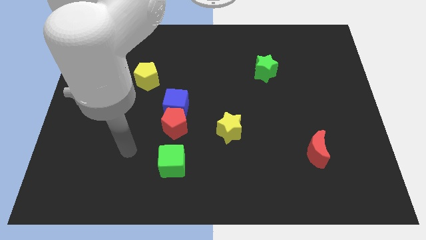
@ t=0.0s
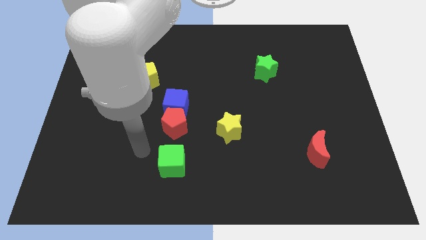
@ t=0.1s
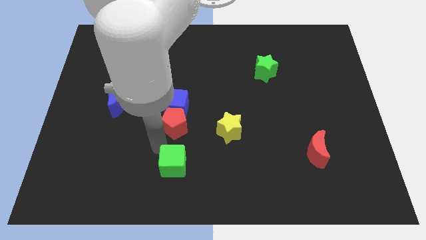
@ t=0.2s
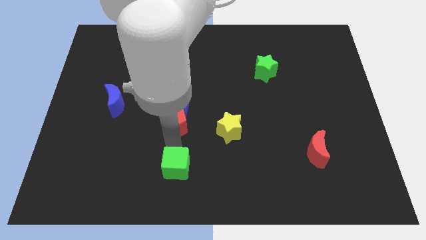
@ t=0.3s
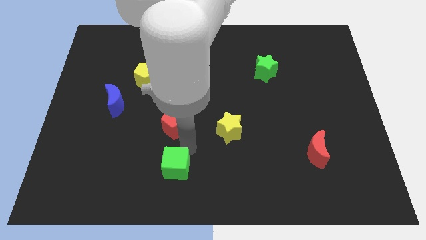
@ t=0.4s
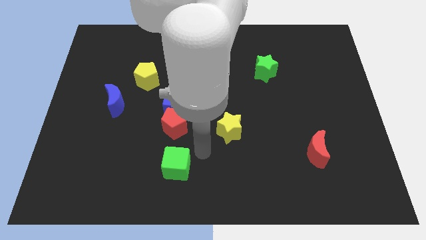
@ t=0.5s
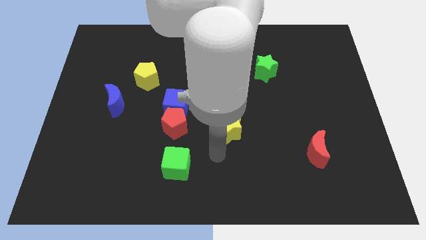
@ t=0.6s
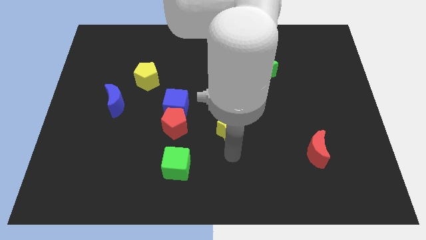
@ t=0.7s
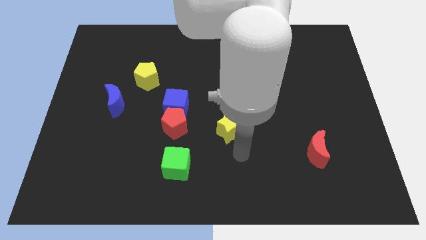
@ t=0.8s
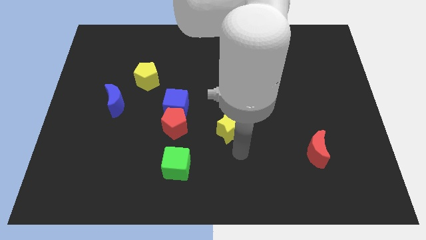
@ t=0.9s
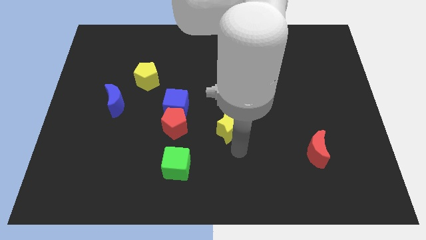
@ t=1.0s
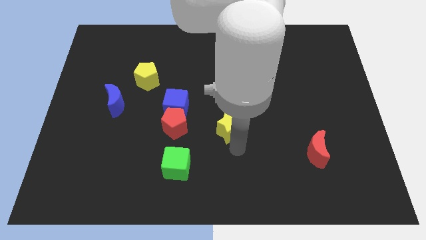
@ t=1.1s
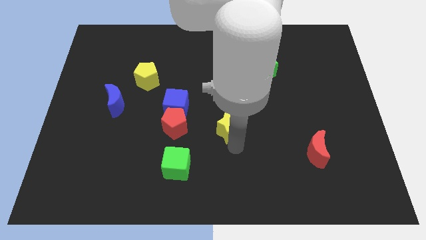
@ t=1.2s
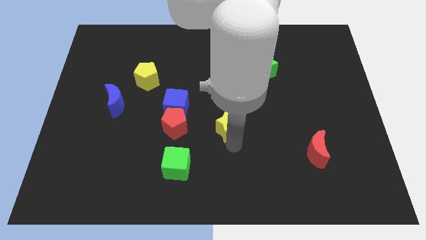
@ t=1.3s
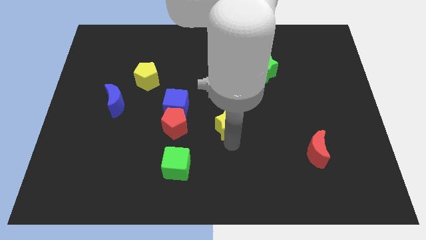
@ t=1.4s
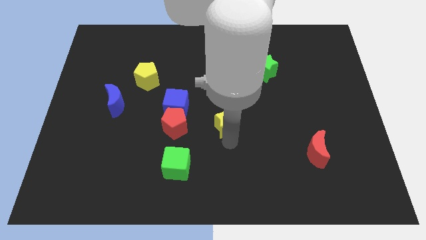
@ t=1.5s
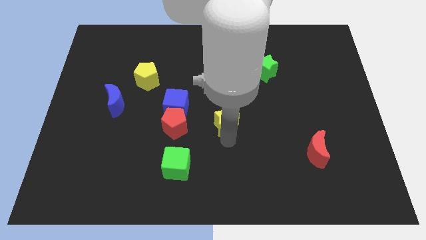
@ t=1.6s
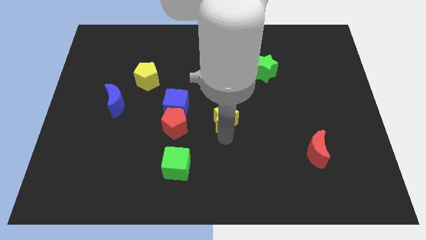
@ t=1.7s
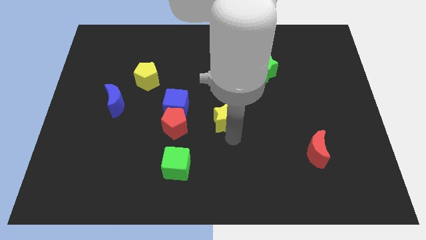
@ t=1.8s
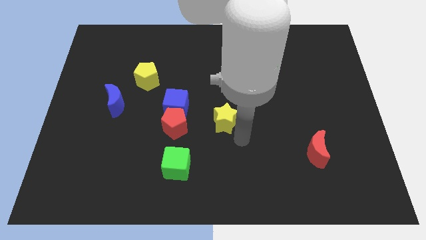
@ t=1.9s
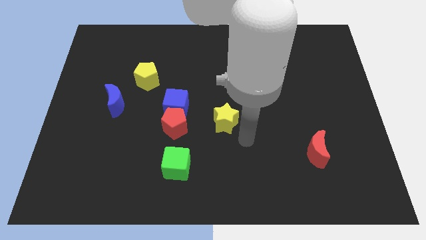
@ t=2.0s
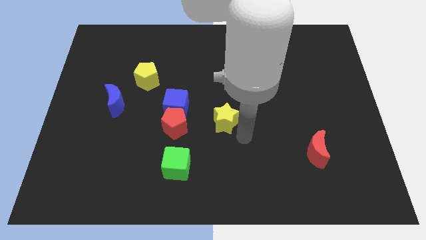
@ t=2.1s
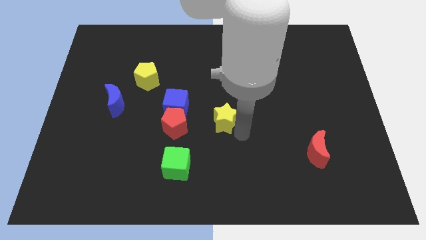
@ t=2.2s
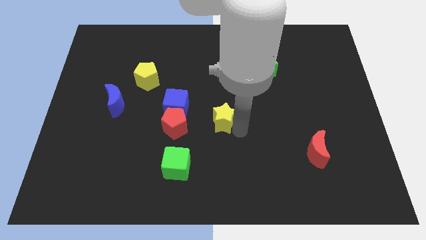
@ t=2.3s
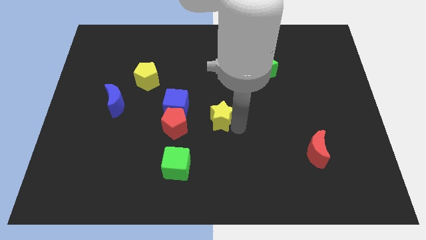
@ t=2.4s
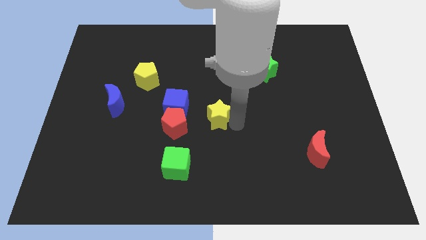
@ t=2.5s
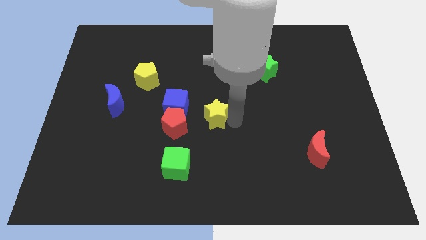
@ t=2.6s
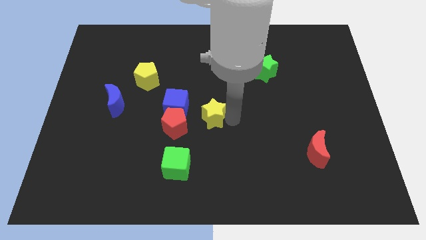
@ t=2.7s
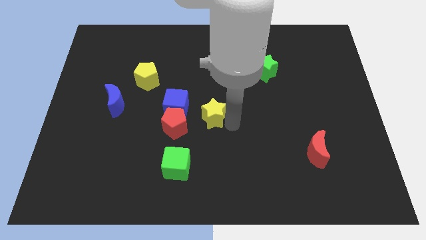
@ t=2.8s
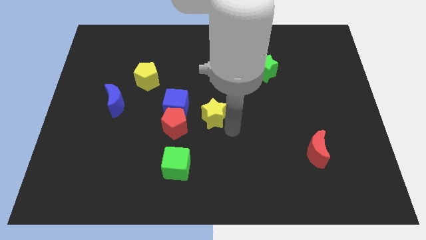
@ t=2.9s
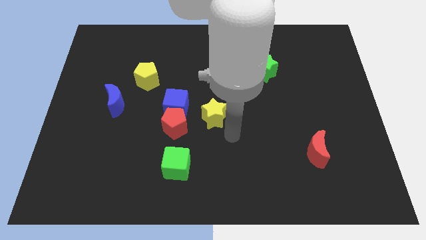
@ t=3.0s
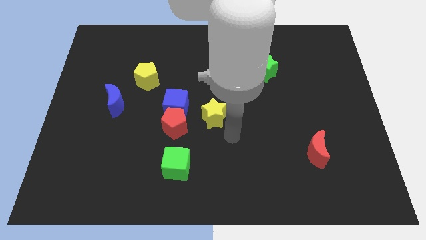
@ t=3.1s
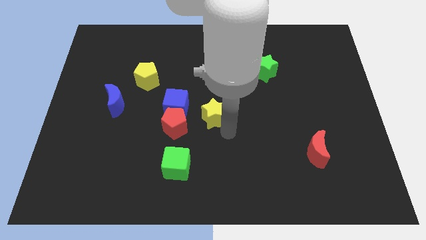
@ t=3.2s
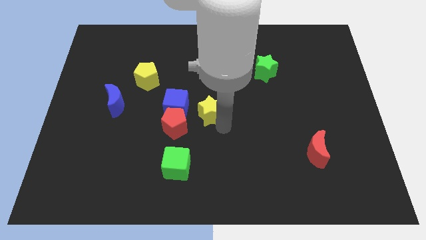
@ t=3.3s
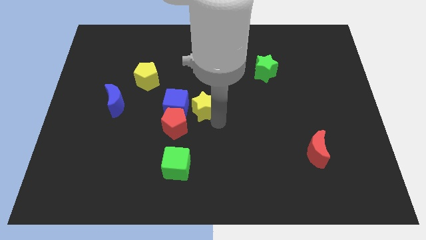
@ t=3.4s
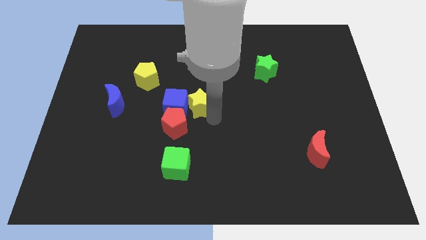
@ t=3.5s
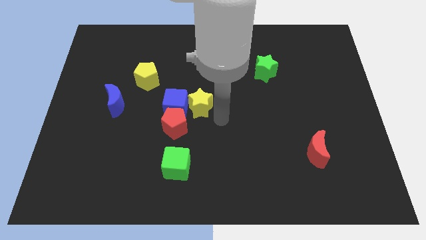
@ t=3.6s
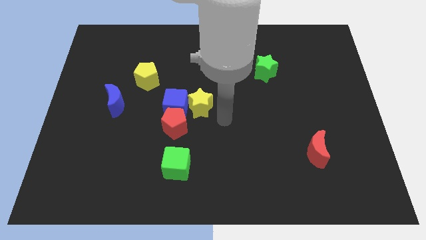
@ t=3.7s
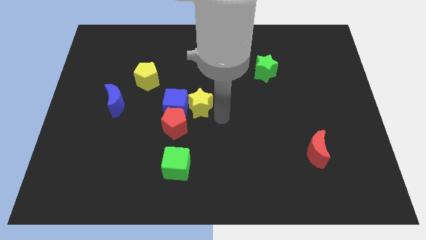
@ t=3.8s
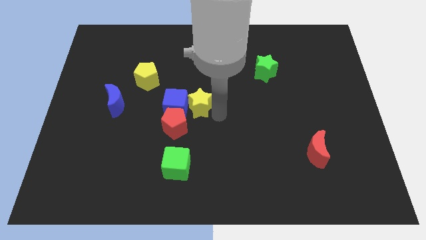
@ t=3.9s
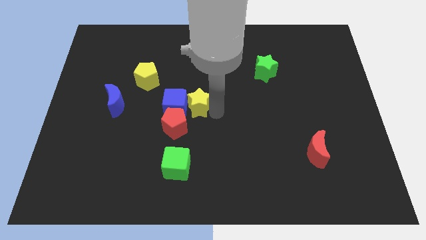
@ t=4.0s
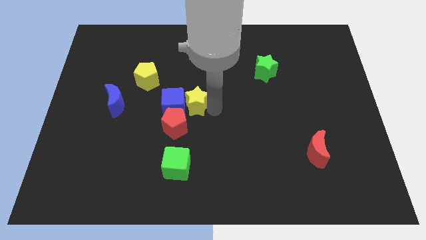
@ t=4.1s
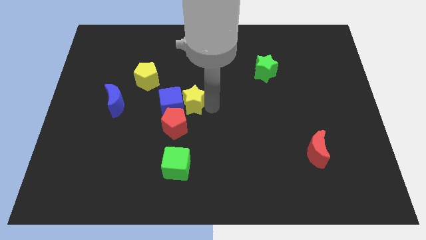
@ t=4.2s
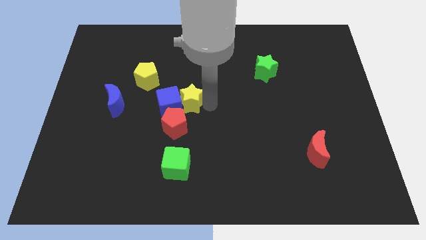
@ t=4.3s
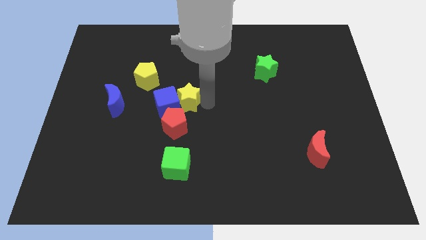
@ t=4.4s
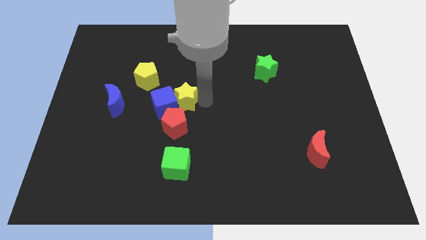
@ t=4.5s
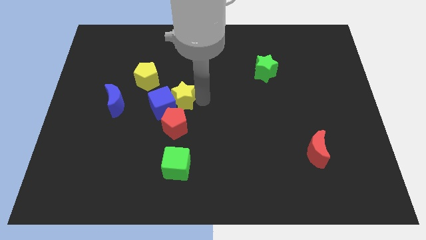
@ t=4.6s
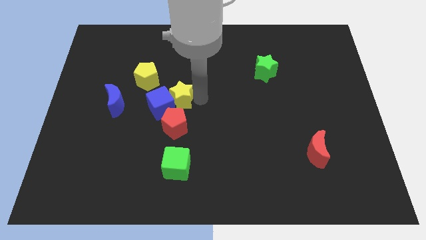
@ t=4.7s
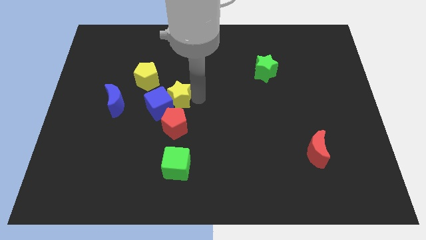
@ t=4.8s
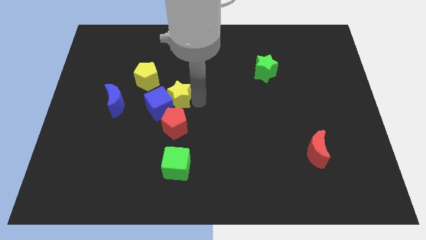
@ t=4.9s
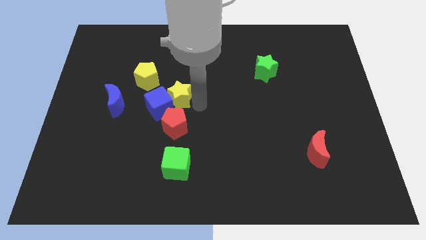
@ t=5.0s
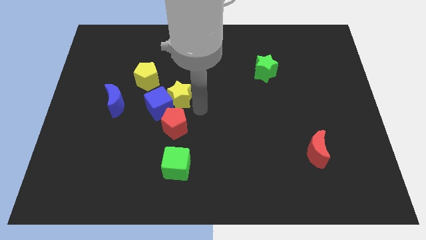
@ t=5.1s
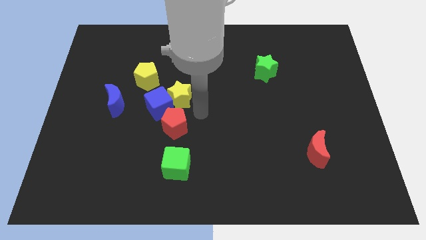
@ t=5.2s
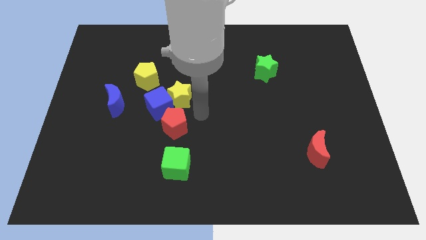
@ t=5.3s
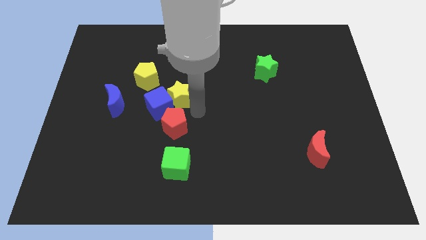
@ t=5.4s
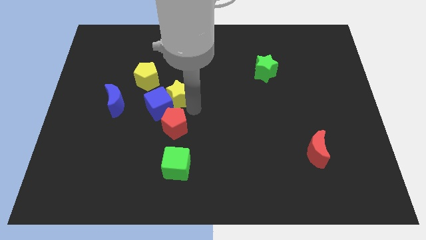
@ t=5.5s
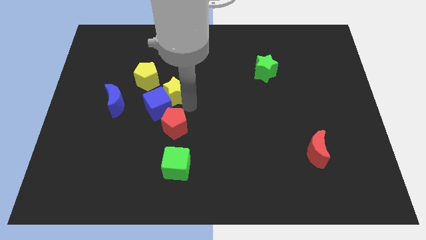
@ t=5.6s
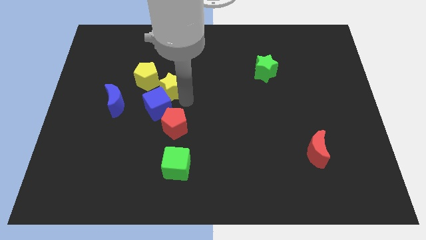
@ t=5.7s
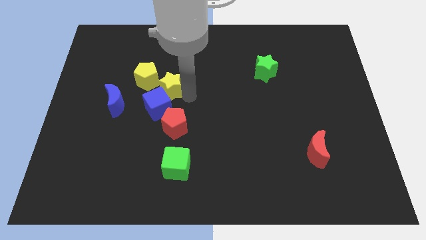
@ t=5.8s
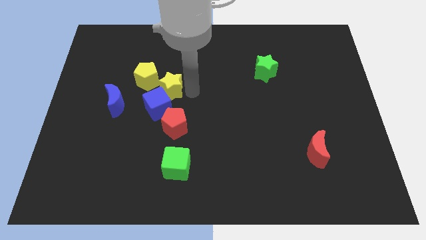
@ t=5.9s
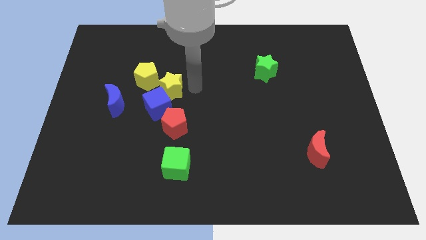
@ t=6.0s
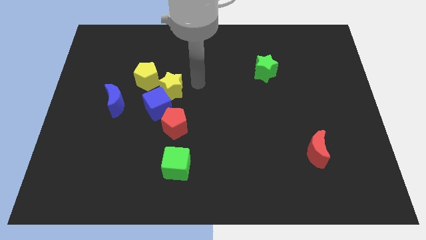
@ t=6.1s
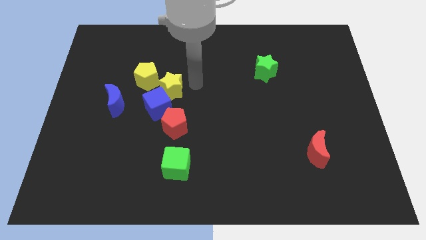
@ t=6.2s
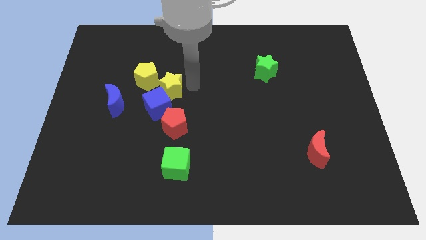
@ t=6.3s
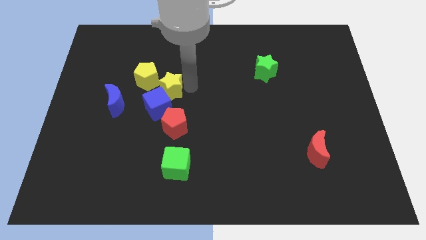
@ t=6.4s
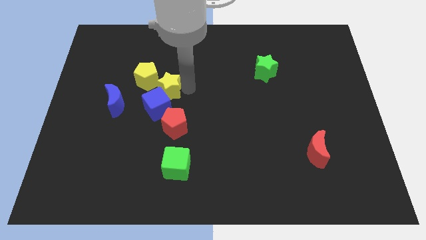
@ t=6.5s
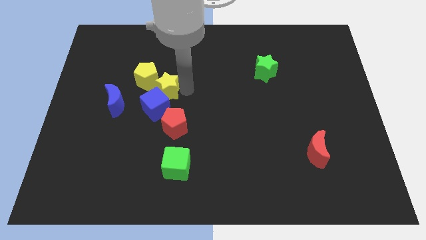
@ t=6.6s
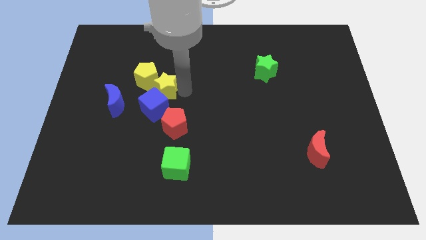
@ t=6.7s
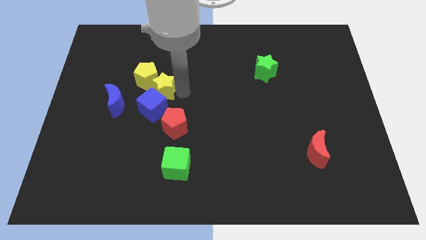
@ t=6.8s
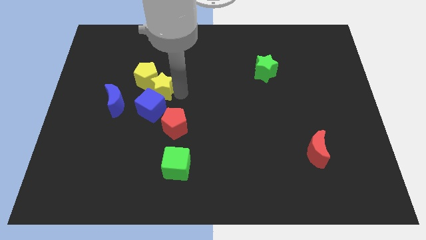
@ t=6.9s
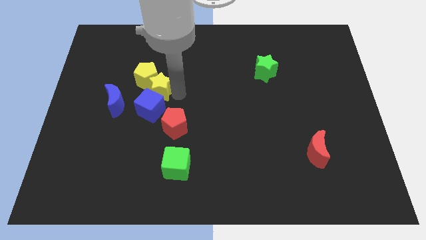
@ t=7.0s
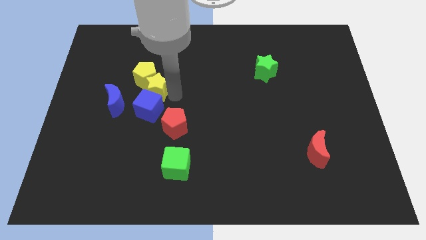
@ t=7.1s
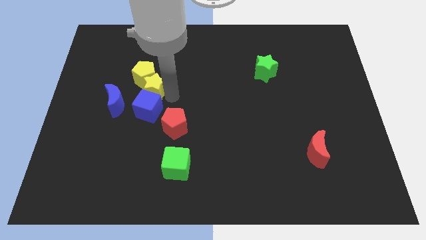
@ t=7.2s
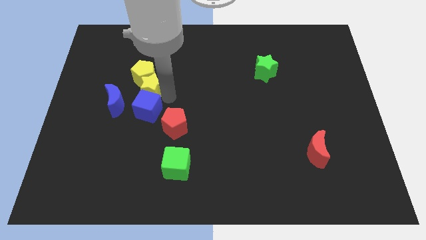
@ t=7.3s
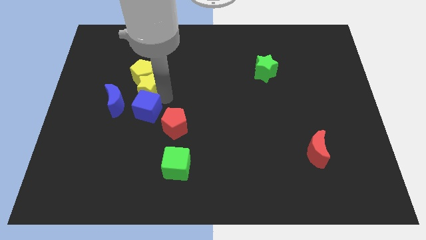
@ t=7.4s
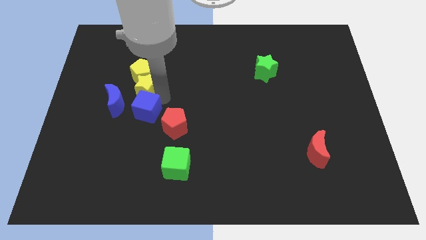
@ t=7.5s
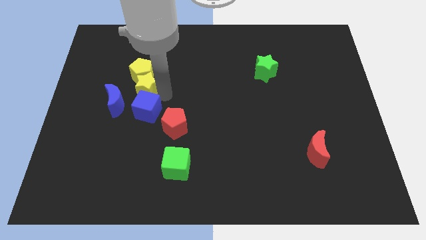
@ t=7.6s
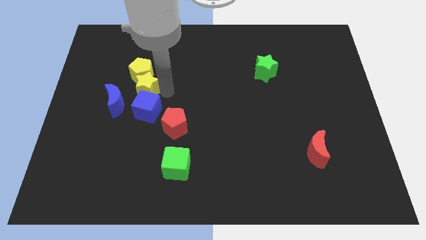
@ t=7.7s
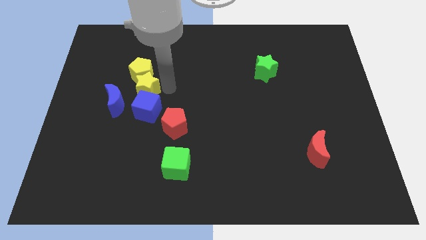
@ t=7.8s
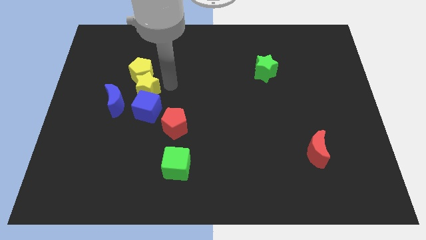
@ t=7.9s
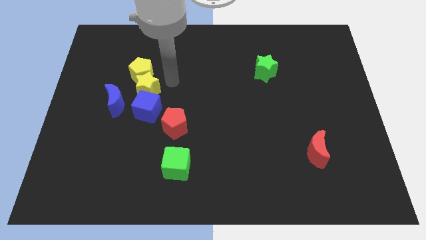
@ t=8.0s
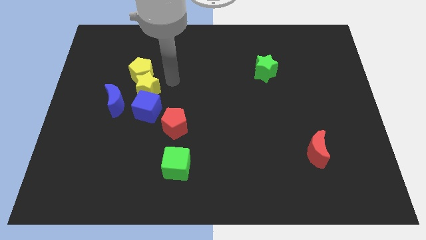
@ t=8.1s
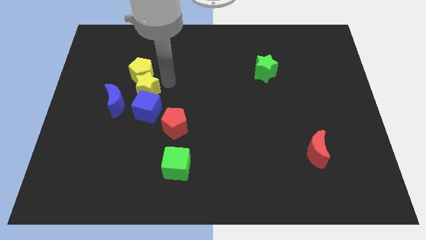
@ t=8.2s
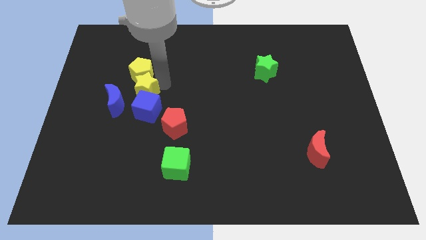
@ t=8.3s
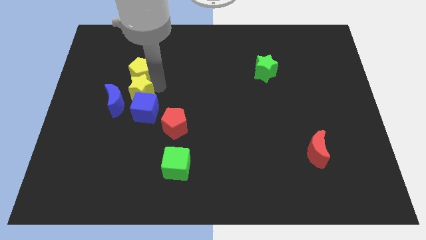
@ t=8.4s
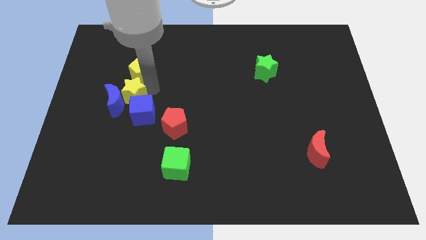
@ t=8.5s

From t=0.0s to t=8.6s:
put the yellow star next to the blue moon
